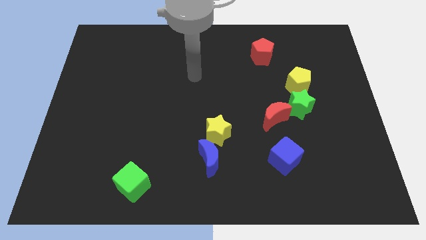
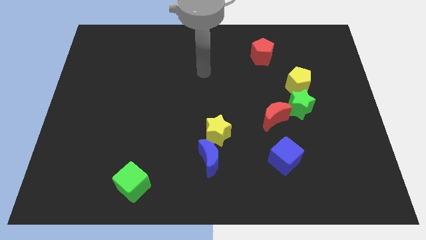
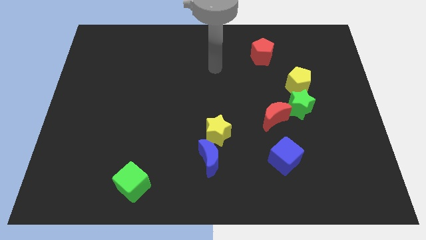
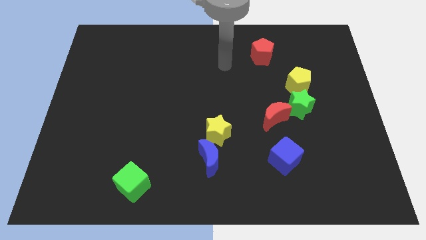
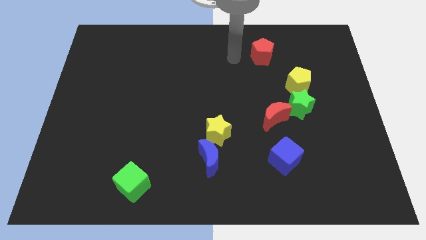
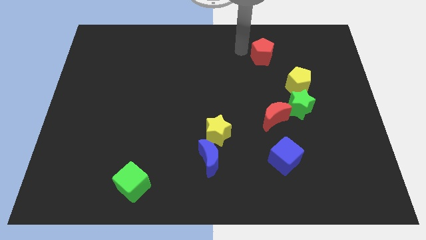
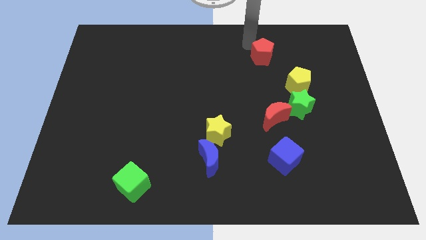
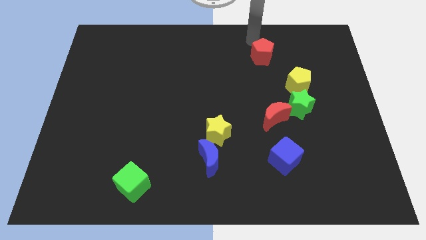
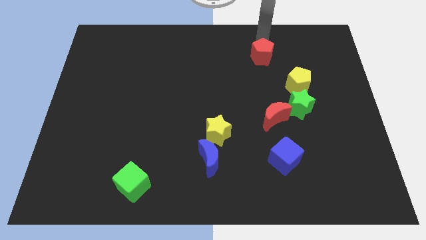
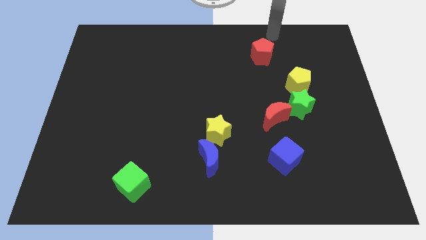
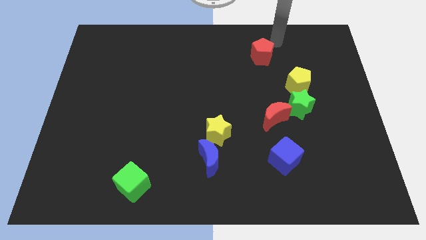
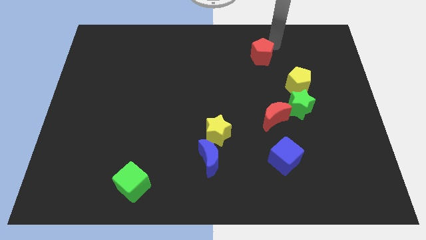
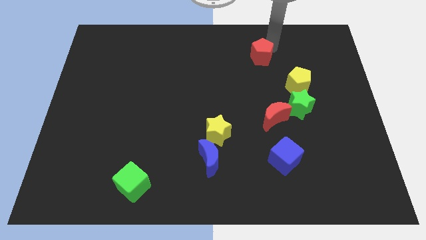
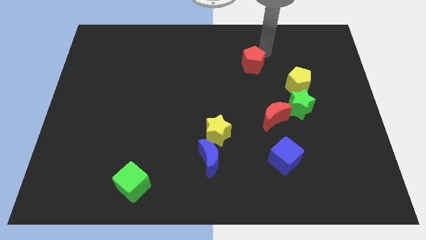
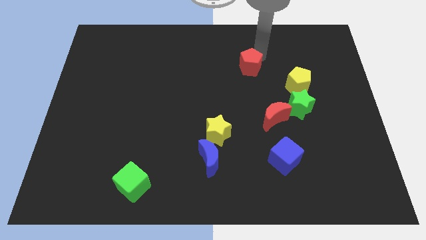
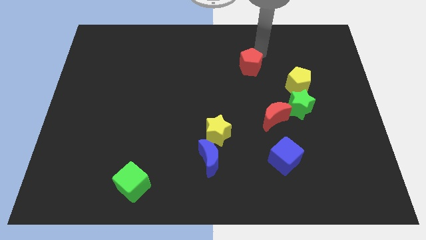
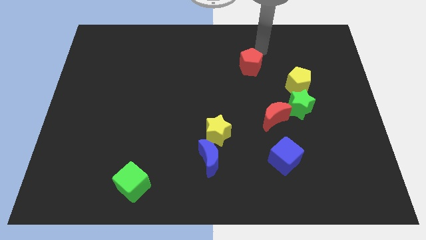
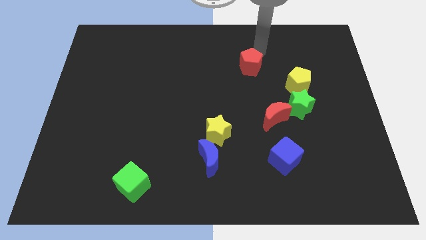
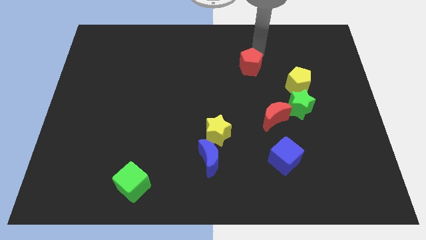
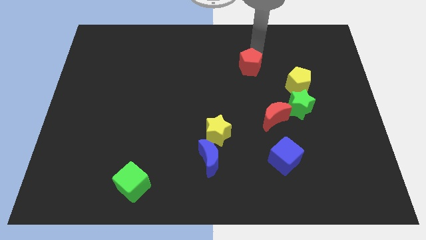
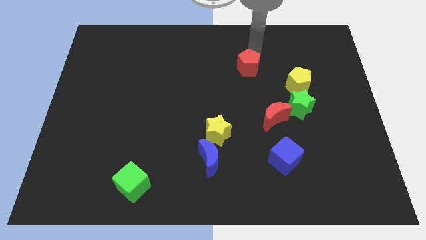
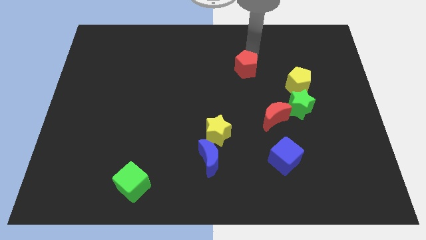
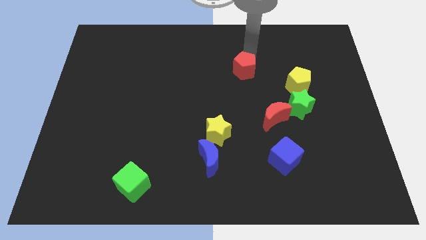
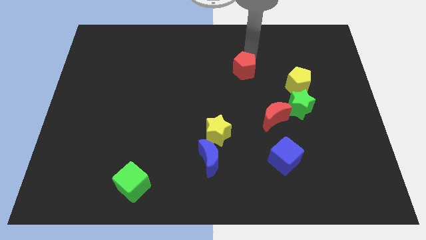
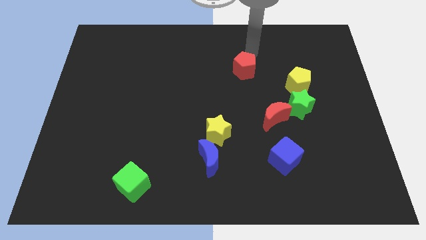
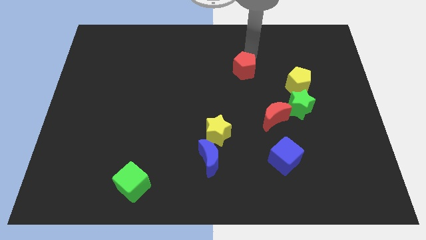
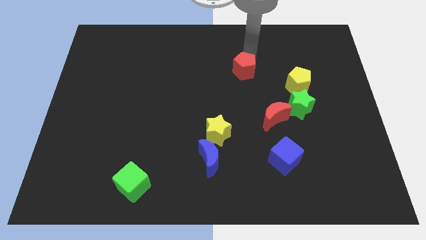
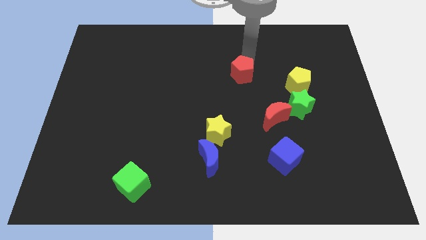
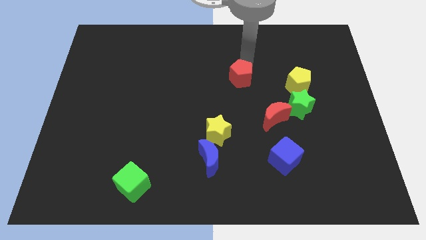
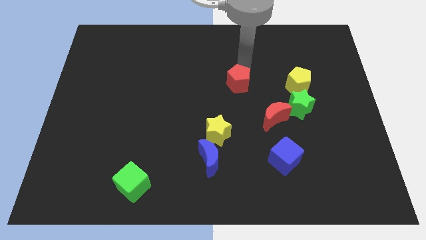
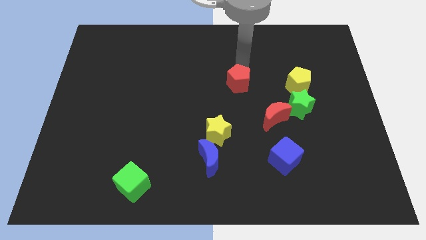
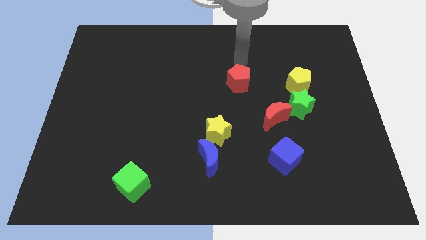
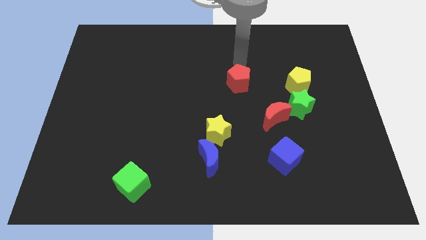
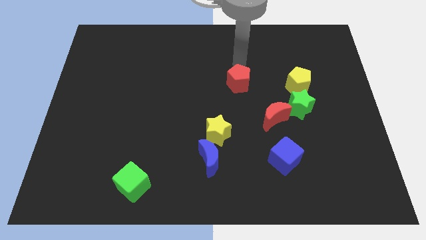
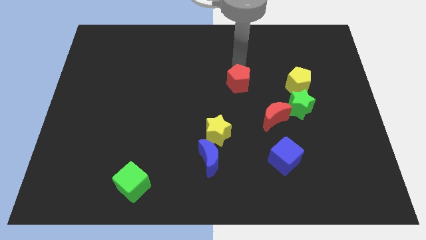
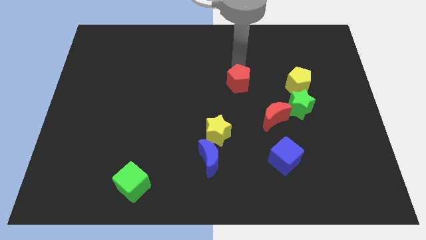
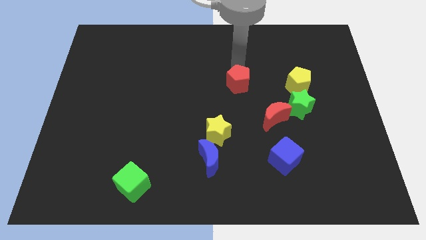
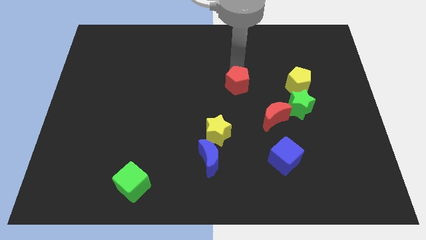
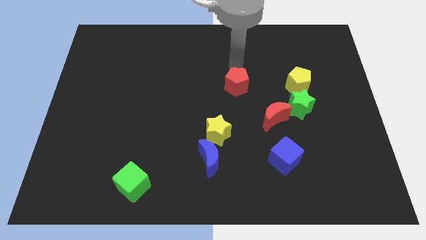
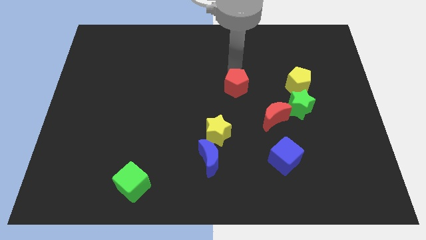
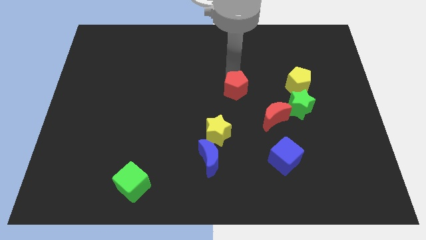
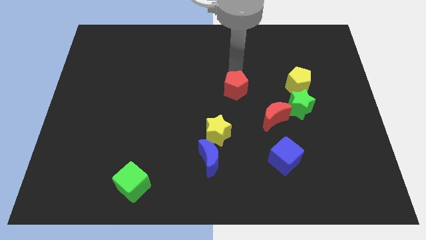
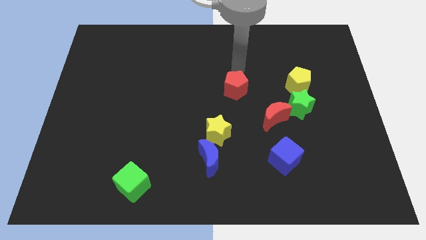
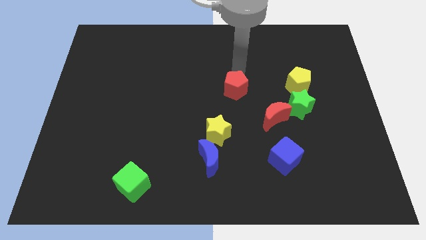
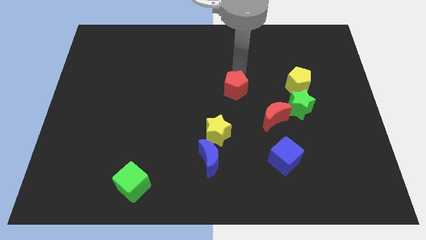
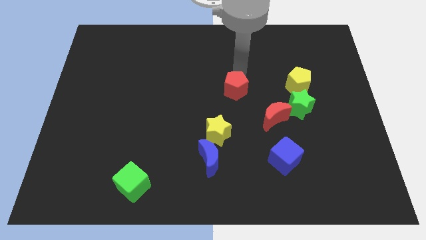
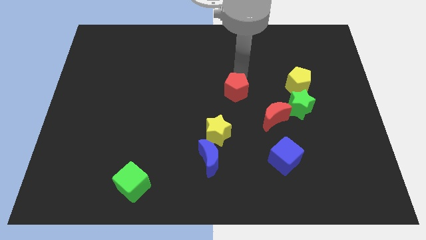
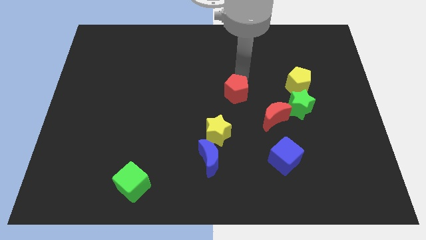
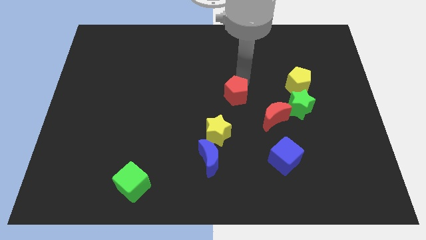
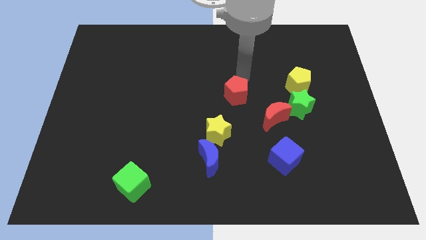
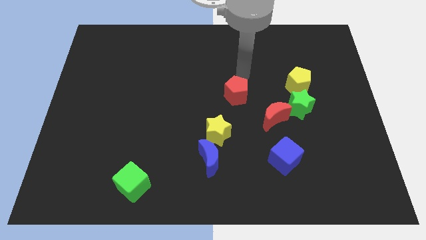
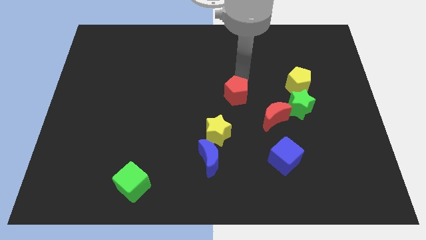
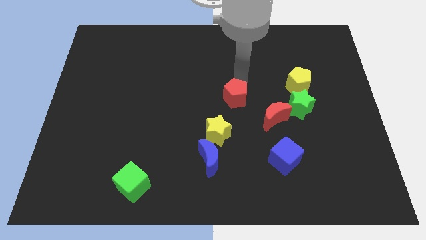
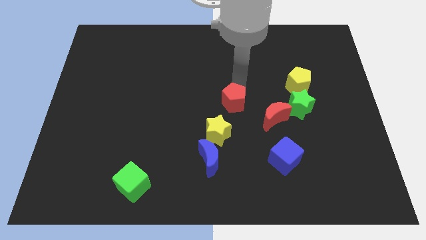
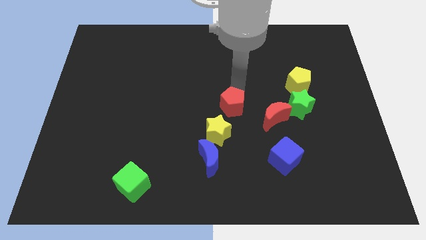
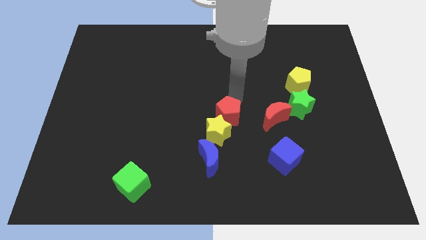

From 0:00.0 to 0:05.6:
push the red pentagon to the yellow star

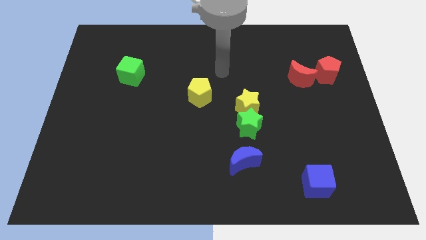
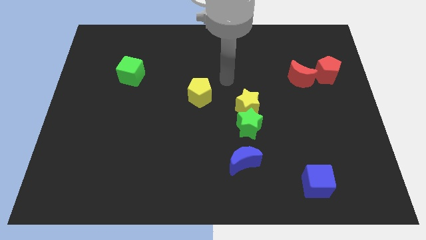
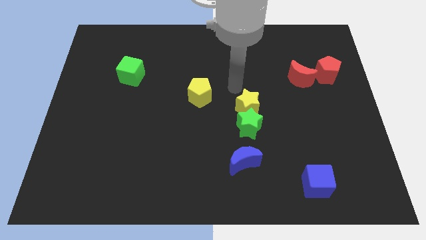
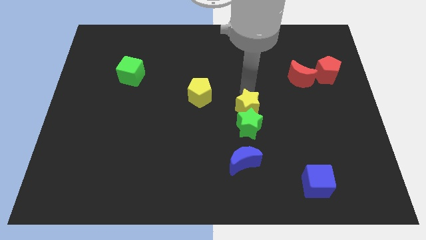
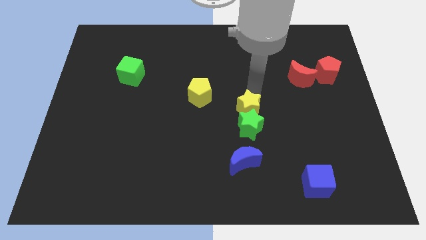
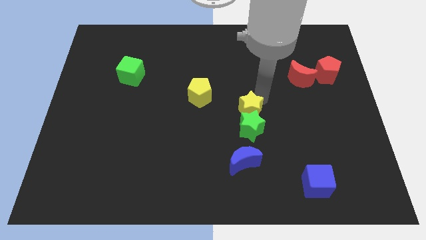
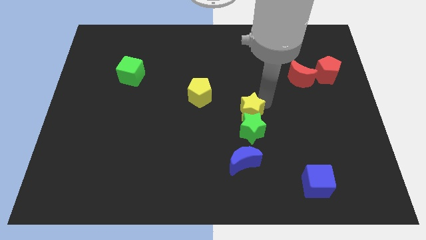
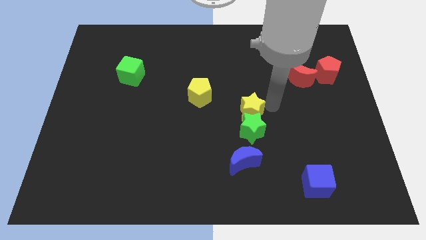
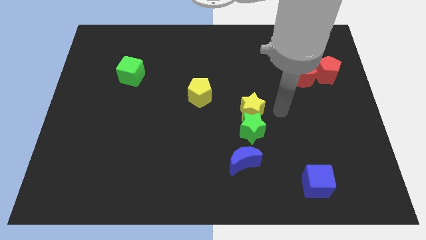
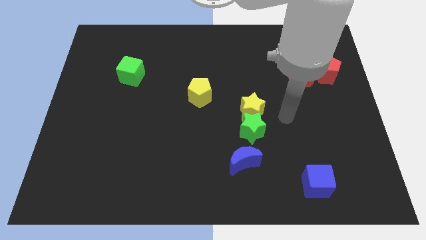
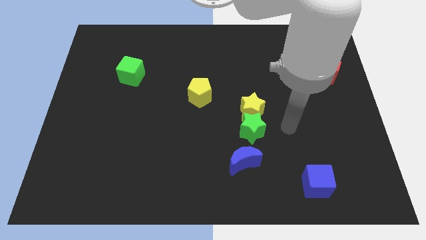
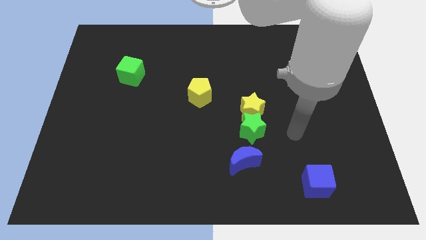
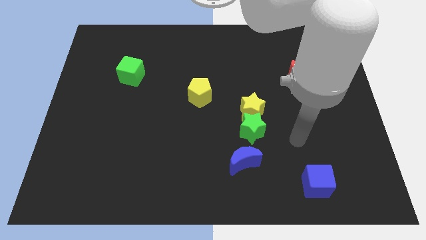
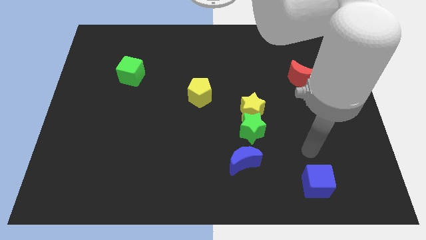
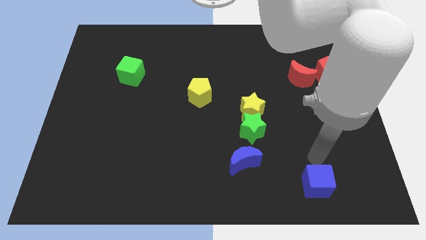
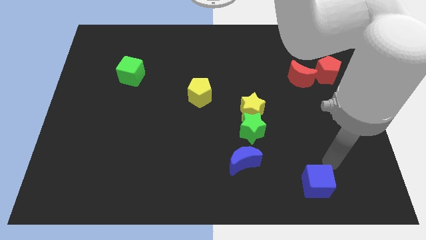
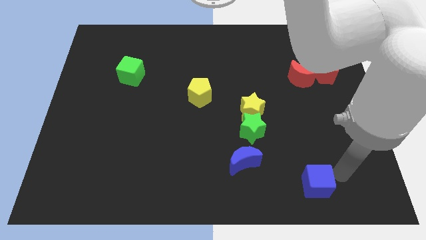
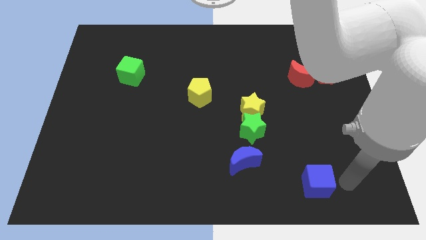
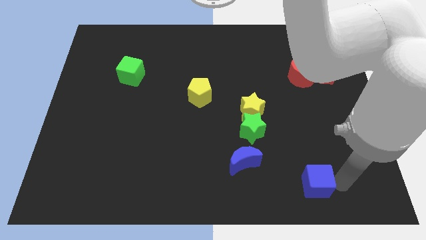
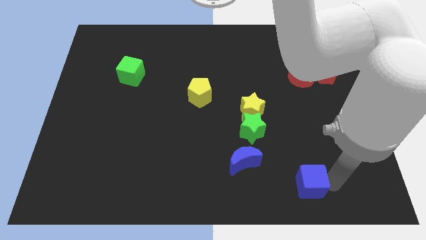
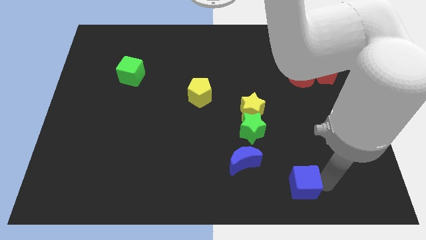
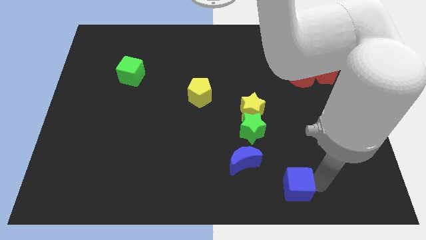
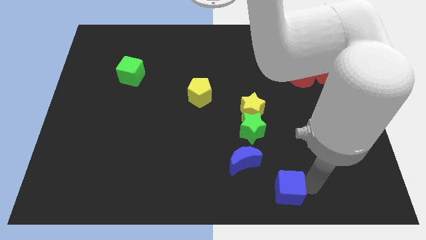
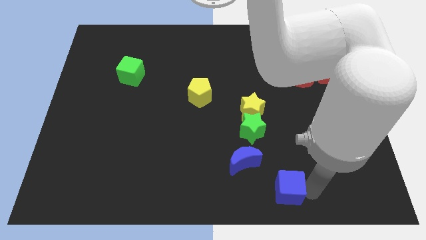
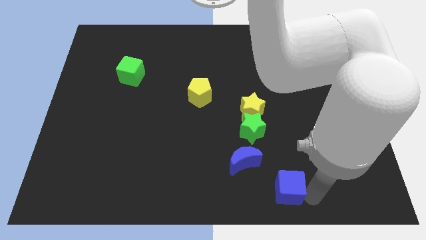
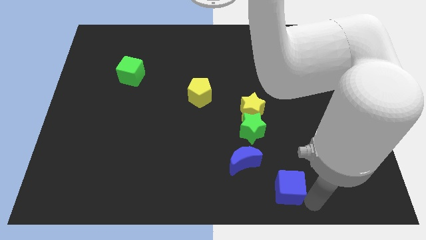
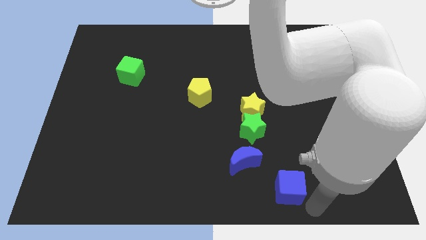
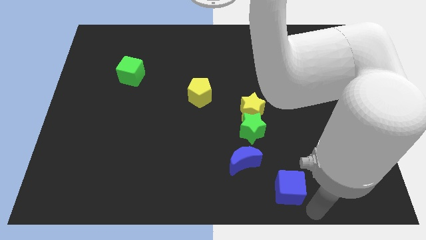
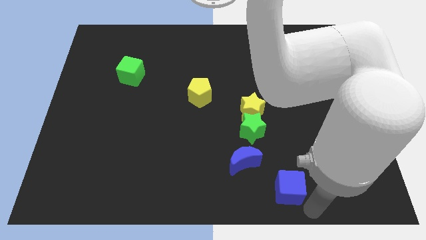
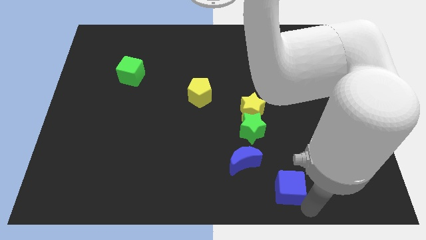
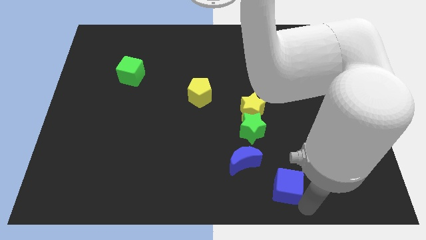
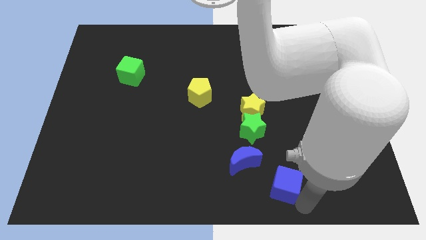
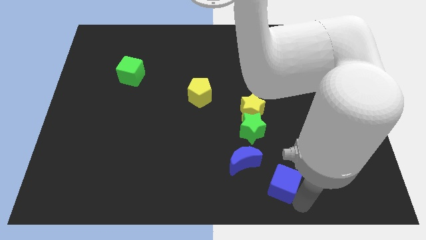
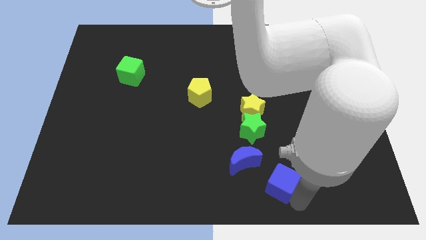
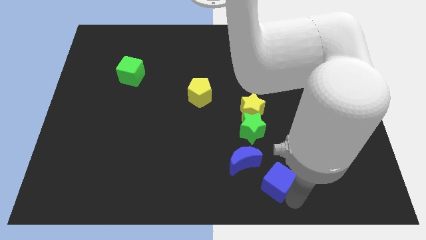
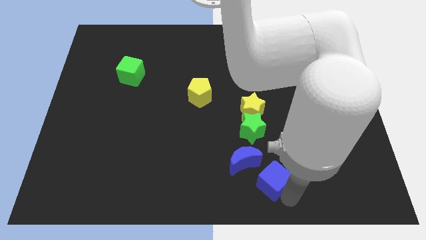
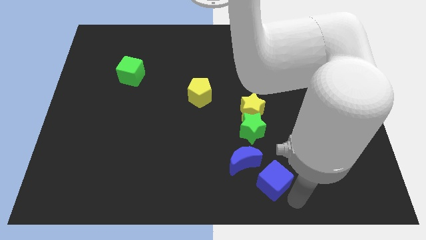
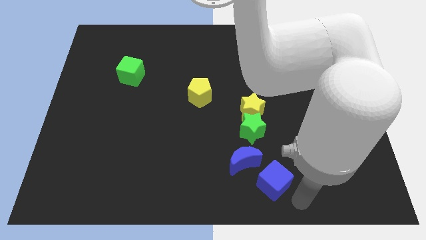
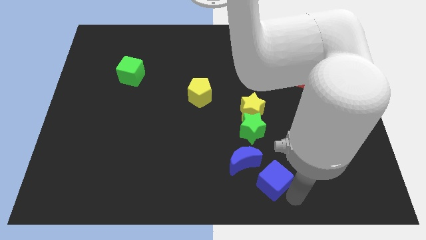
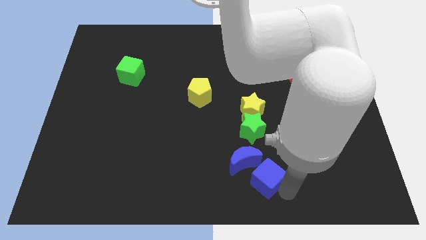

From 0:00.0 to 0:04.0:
push the blue cube towards the blue moon
